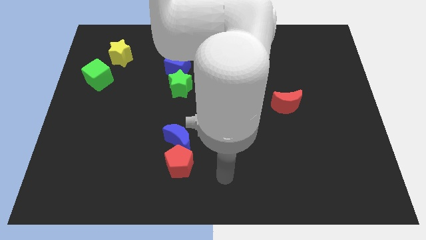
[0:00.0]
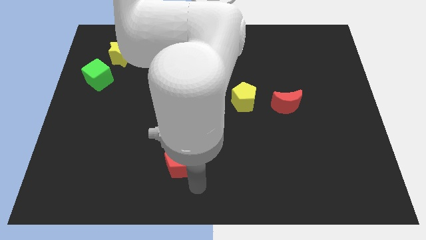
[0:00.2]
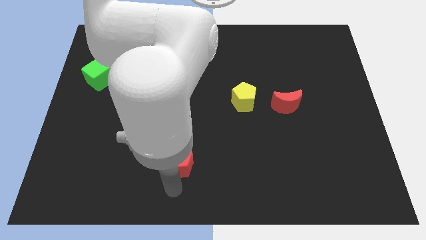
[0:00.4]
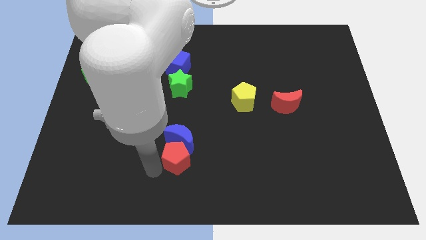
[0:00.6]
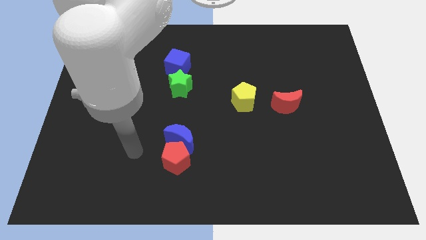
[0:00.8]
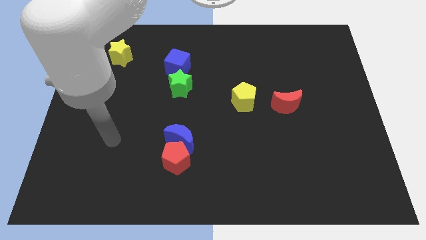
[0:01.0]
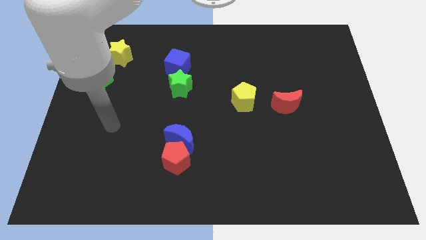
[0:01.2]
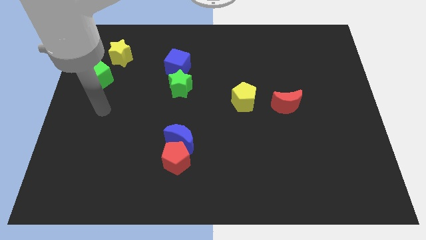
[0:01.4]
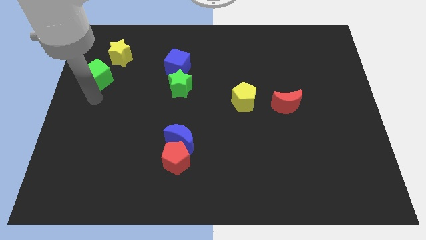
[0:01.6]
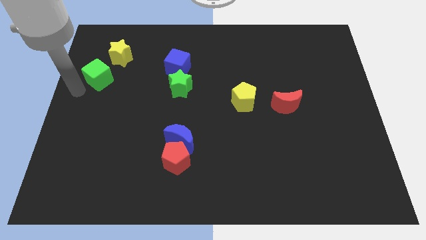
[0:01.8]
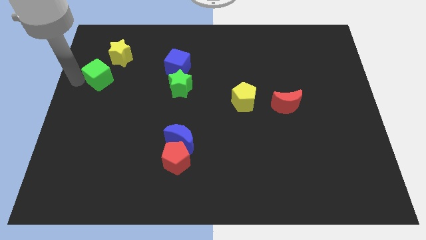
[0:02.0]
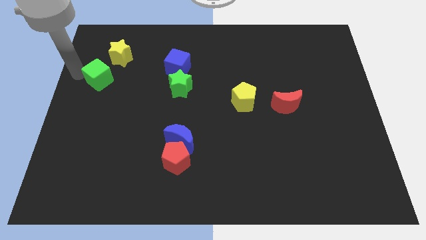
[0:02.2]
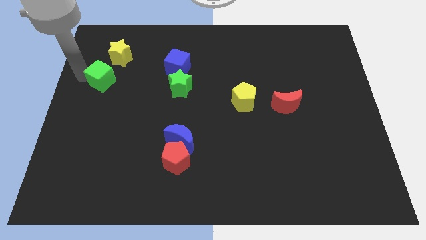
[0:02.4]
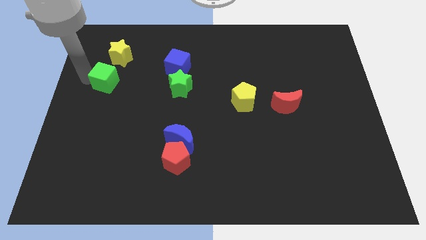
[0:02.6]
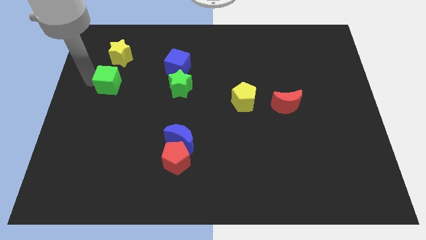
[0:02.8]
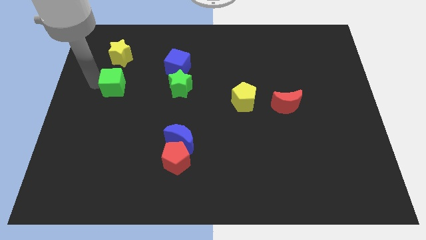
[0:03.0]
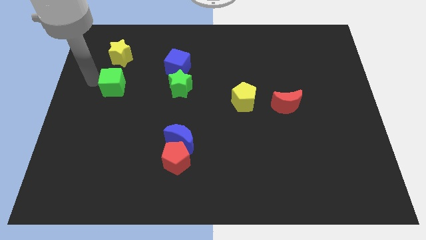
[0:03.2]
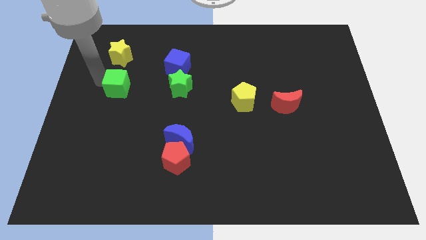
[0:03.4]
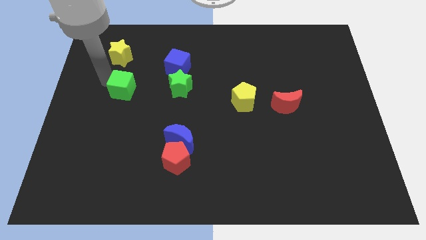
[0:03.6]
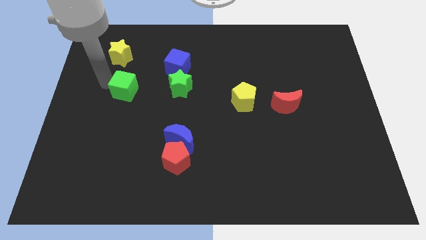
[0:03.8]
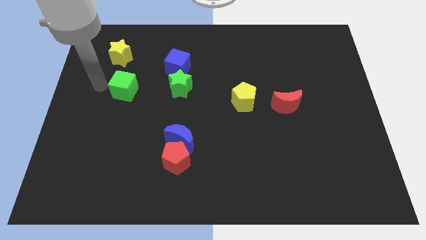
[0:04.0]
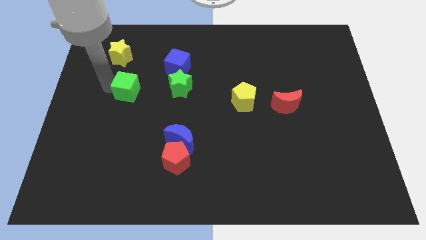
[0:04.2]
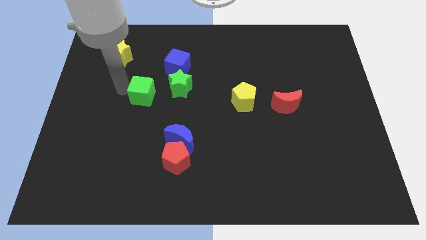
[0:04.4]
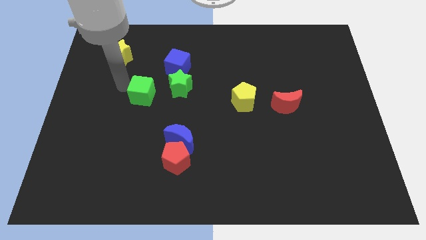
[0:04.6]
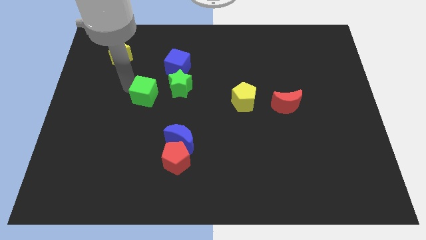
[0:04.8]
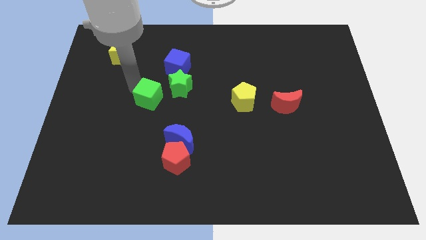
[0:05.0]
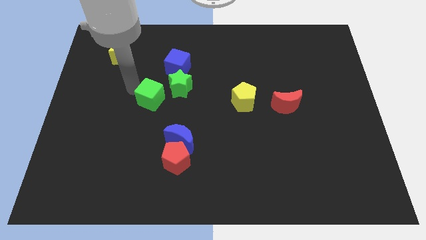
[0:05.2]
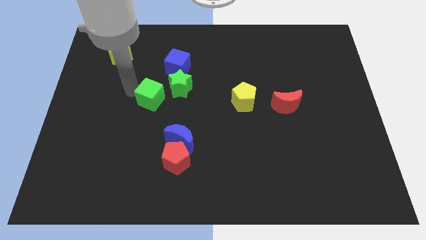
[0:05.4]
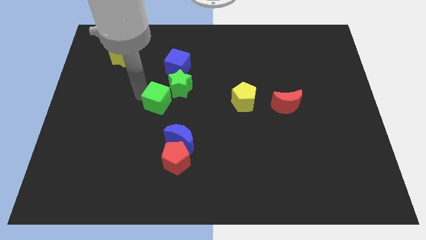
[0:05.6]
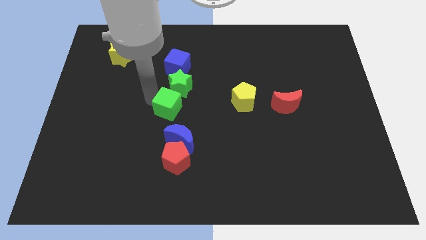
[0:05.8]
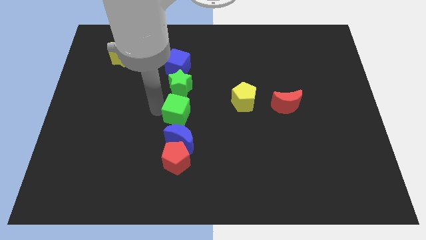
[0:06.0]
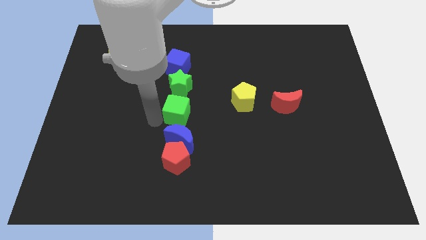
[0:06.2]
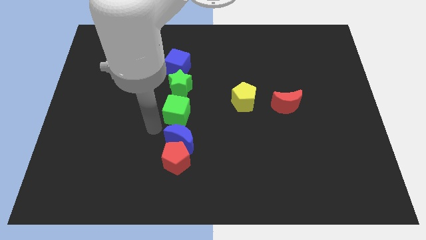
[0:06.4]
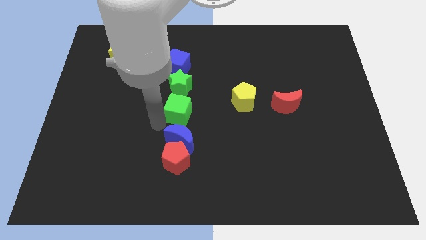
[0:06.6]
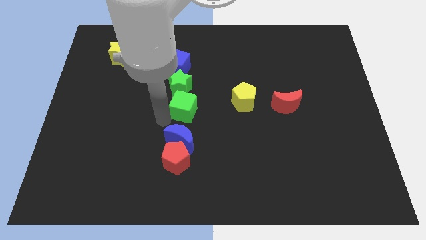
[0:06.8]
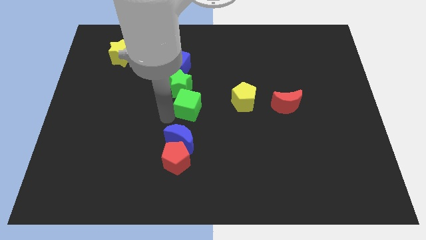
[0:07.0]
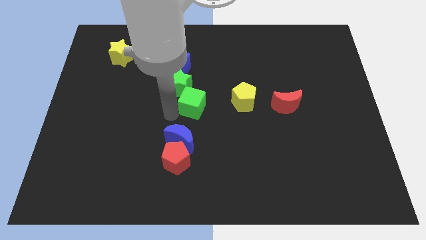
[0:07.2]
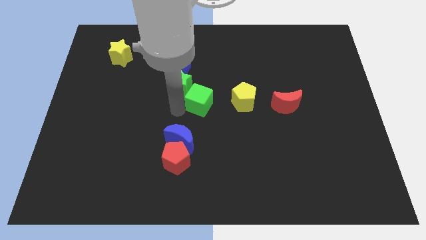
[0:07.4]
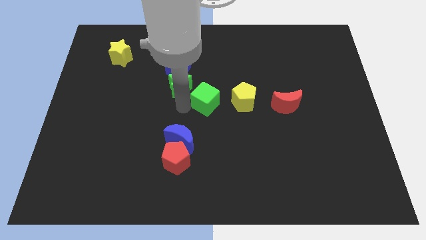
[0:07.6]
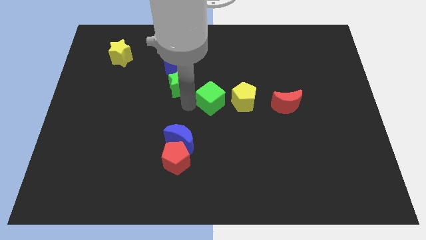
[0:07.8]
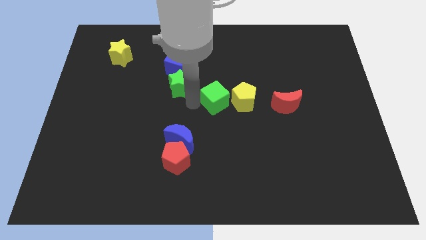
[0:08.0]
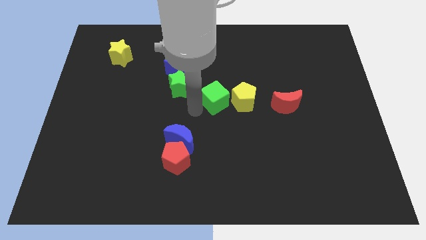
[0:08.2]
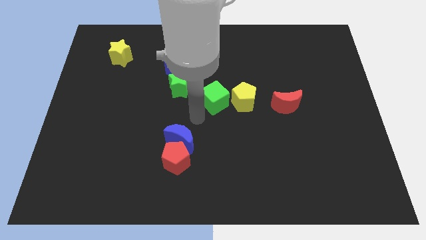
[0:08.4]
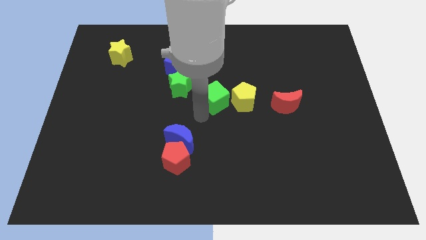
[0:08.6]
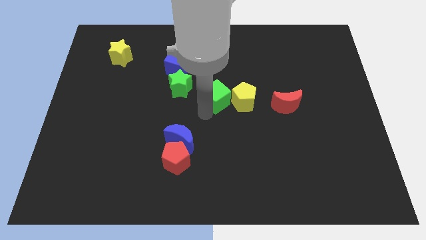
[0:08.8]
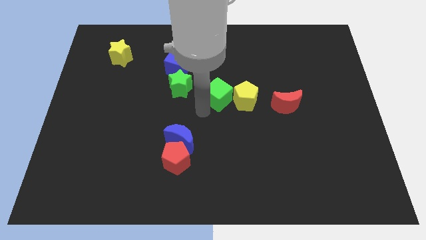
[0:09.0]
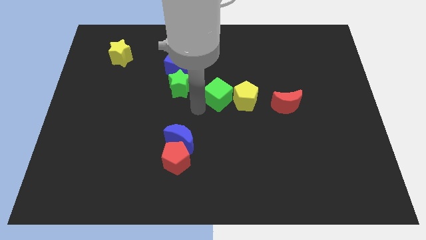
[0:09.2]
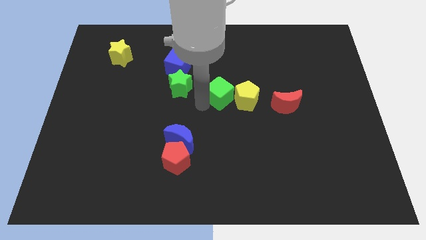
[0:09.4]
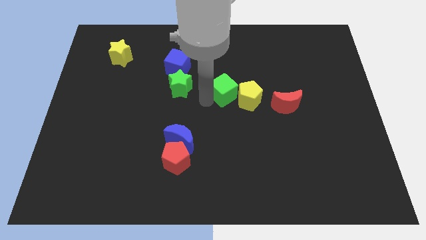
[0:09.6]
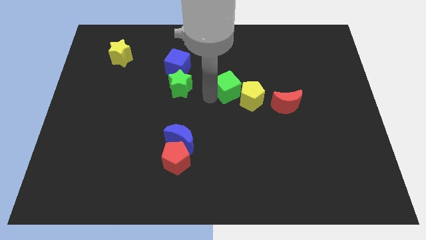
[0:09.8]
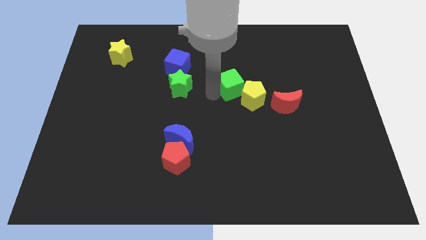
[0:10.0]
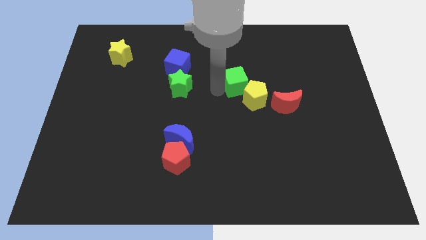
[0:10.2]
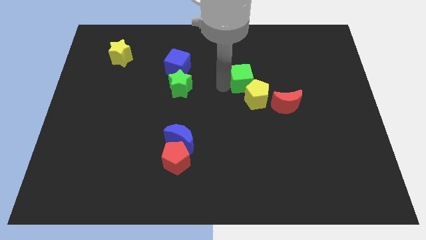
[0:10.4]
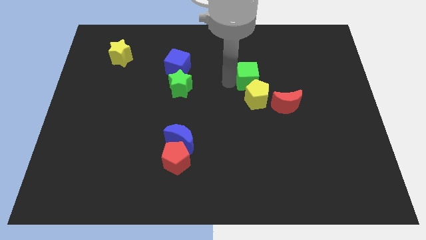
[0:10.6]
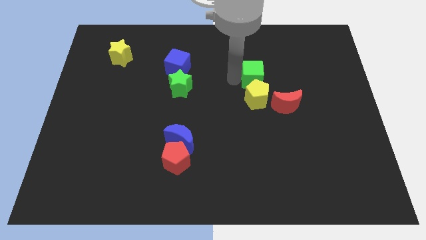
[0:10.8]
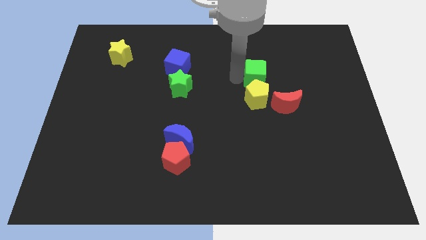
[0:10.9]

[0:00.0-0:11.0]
push the green cube diagonally up and to the right of the yellow pentagon
